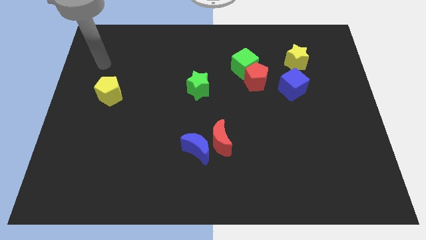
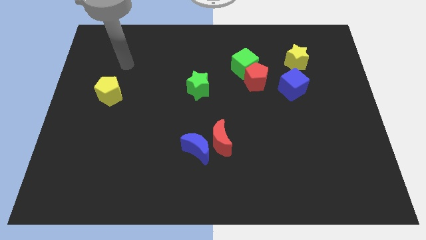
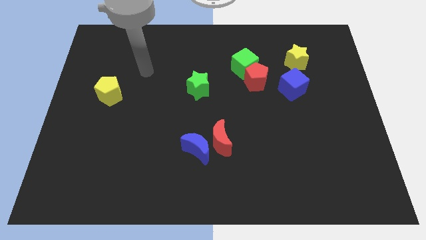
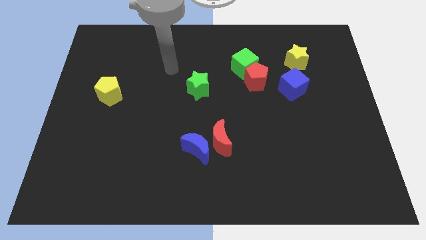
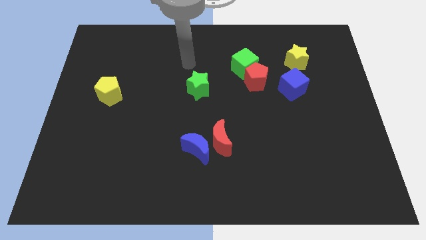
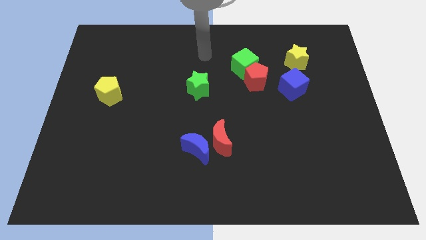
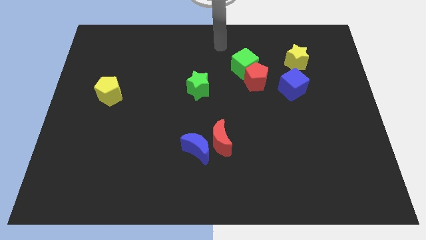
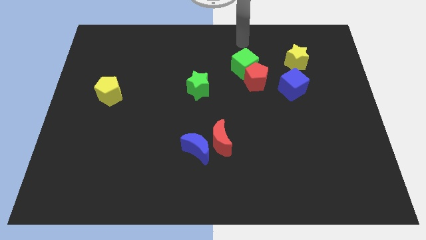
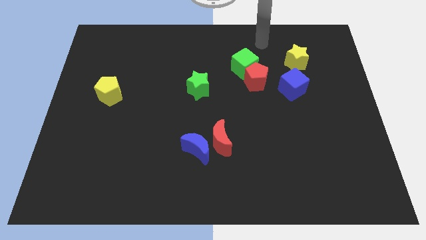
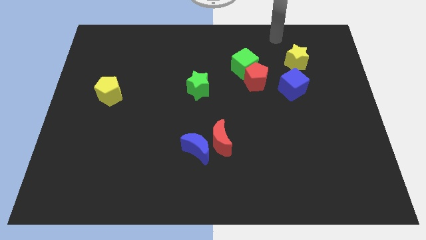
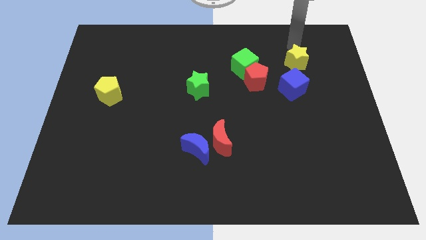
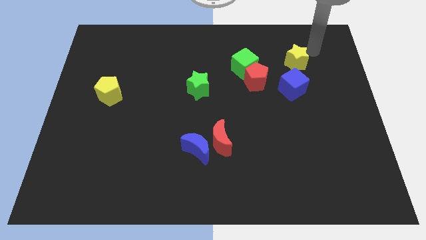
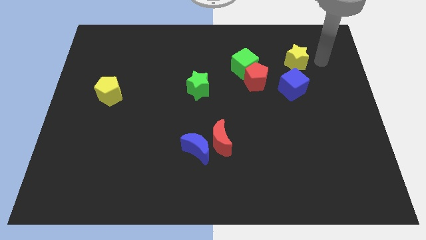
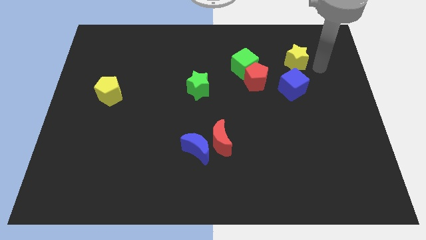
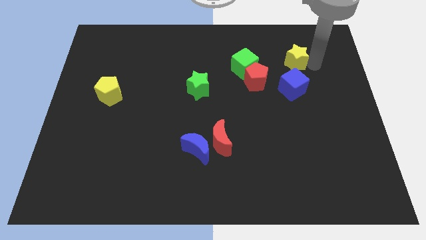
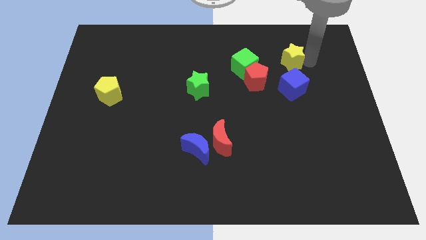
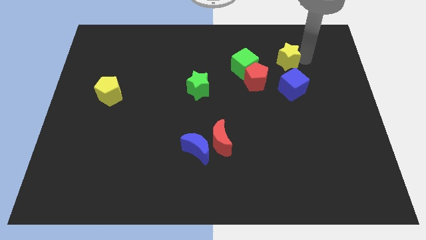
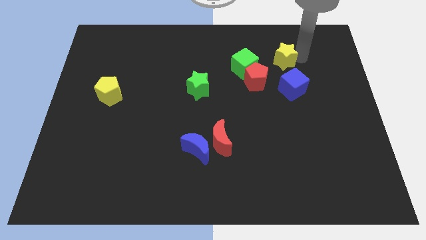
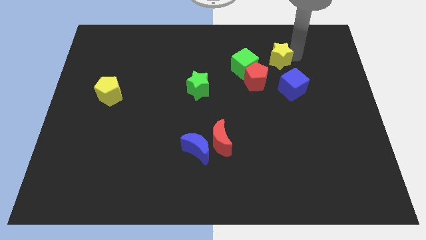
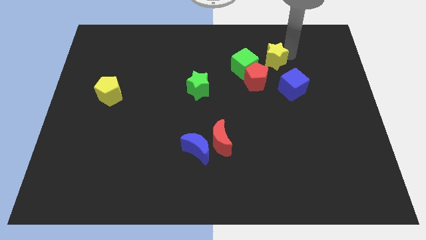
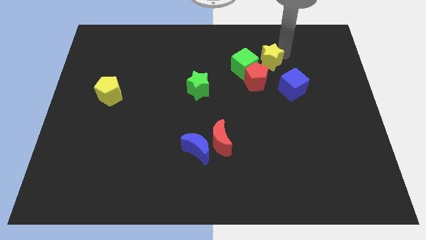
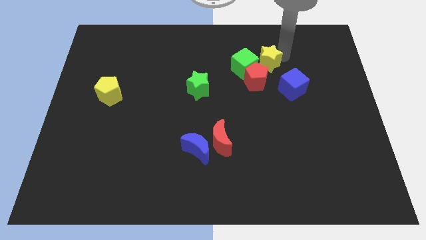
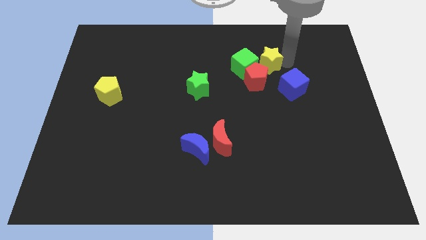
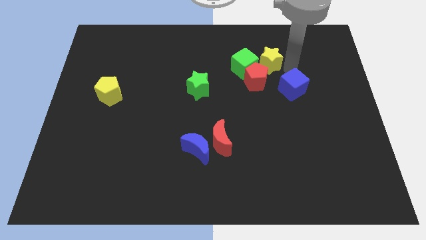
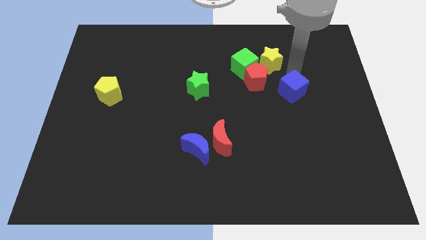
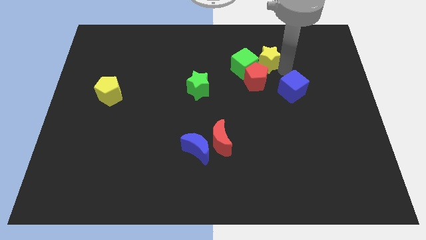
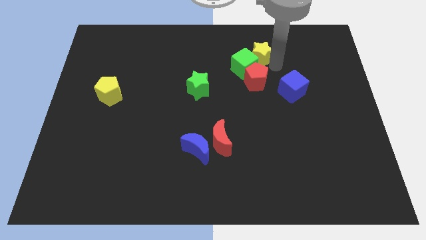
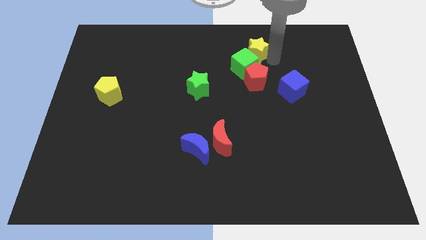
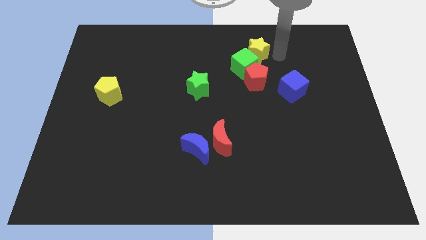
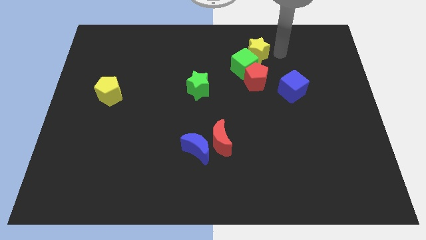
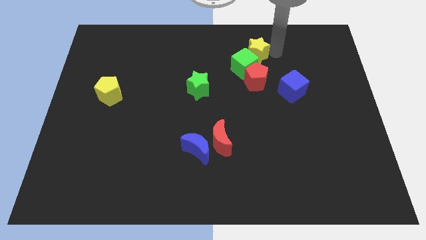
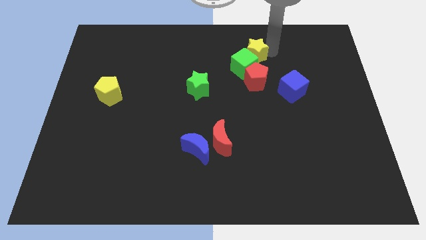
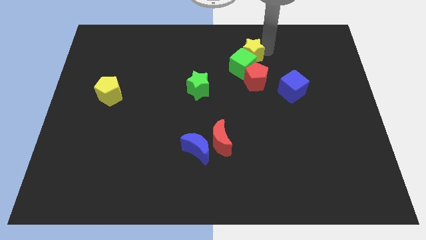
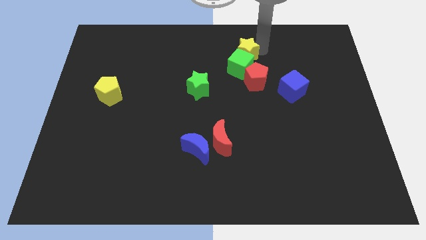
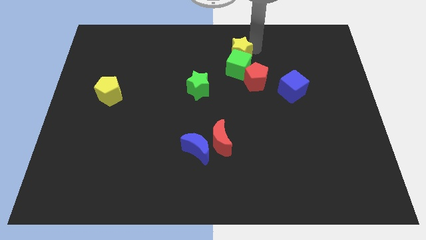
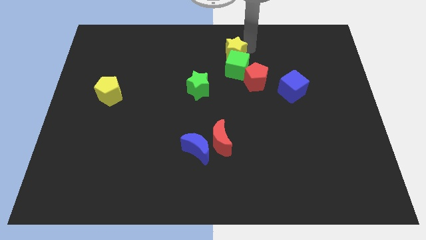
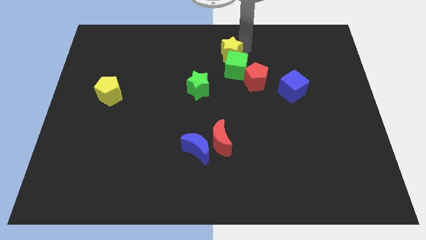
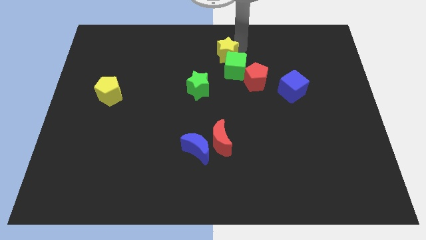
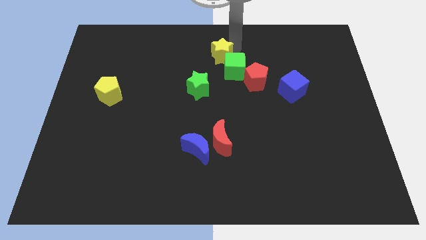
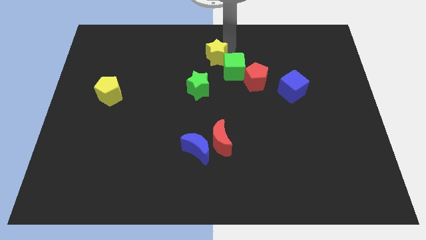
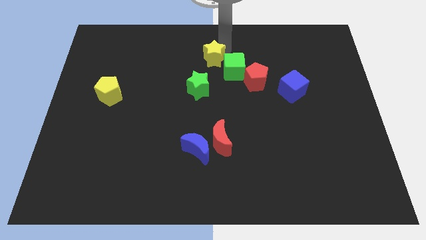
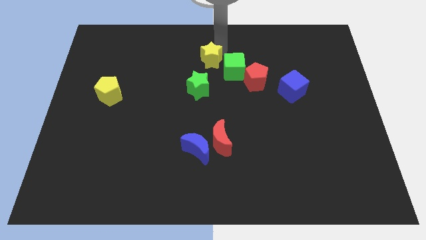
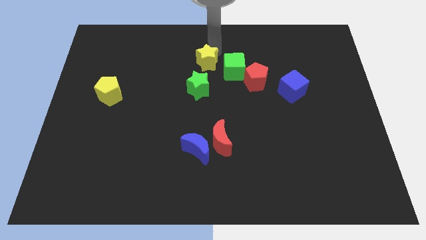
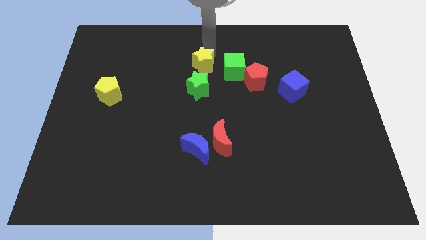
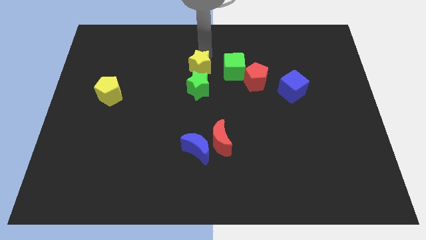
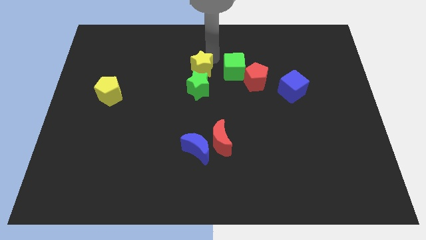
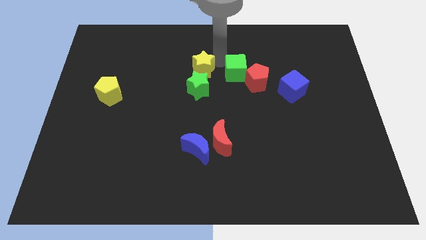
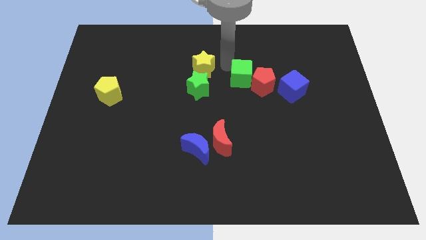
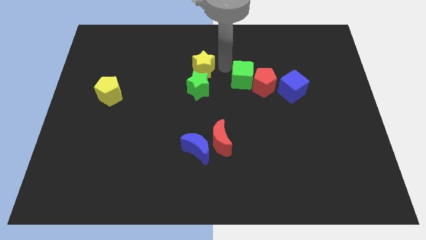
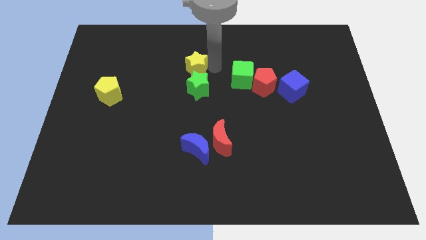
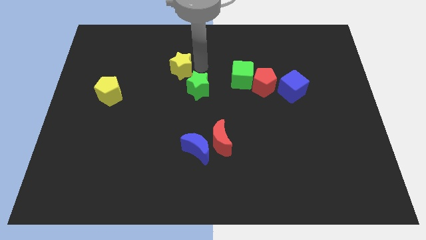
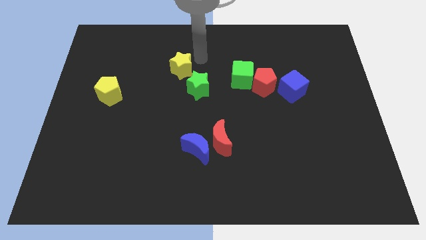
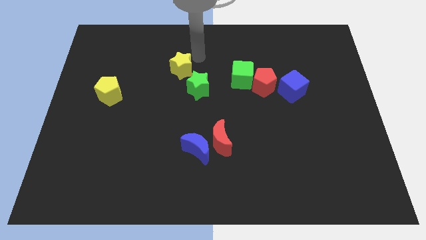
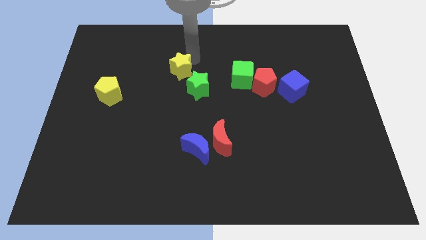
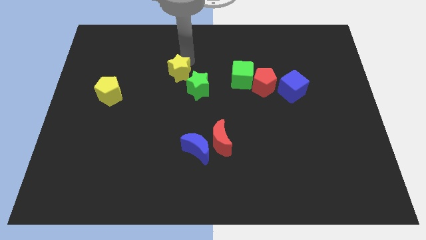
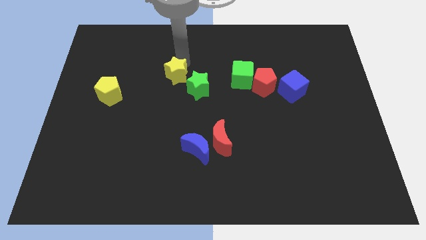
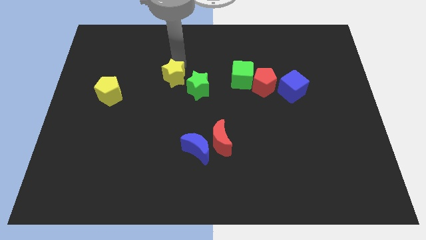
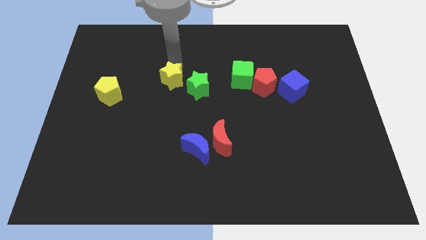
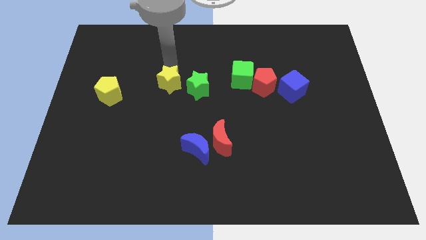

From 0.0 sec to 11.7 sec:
move the yellow star to the right side of the yellow pentagon
